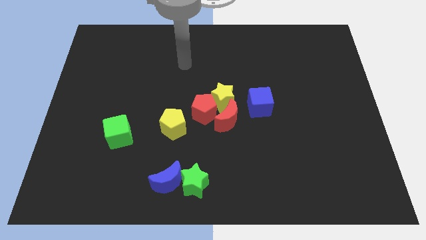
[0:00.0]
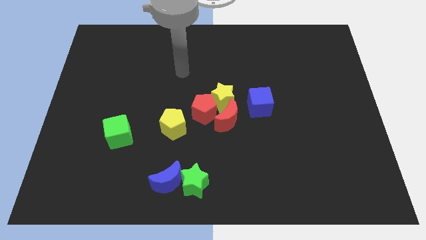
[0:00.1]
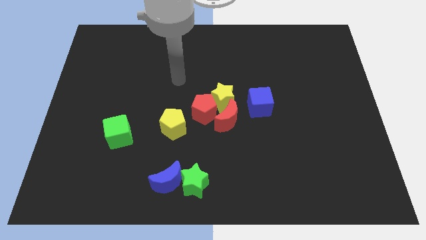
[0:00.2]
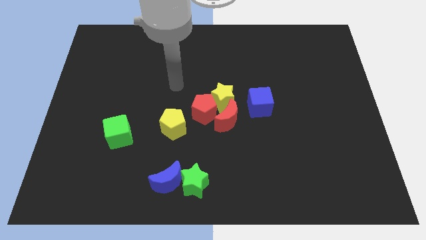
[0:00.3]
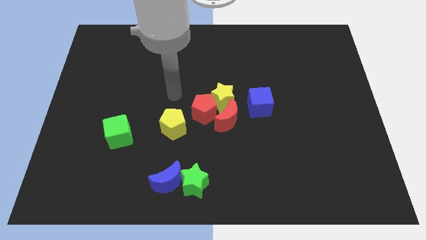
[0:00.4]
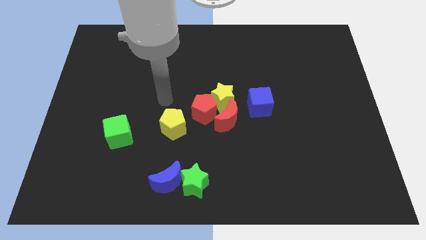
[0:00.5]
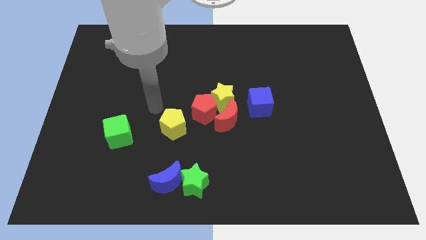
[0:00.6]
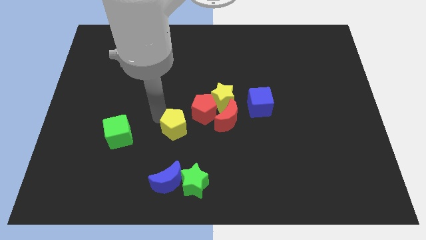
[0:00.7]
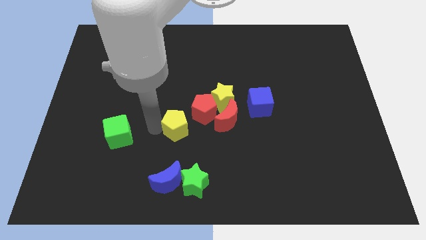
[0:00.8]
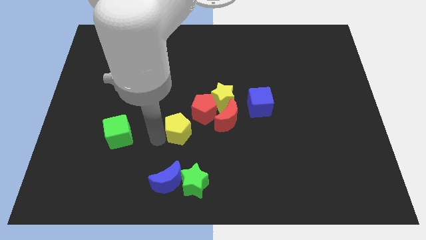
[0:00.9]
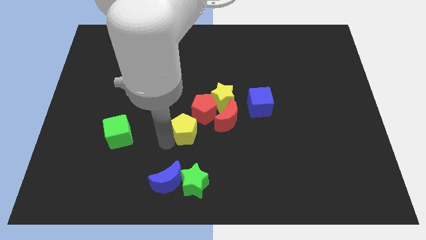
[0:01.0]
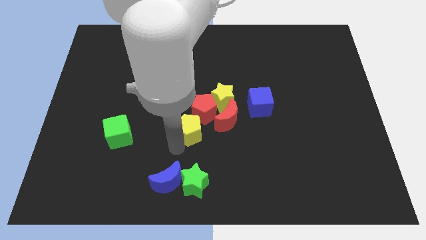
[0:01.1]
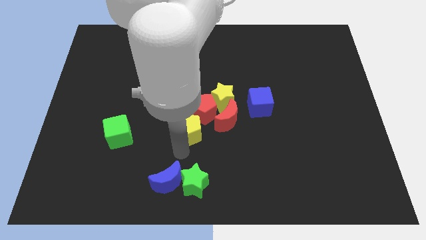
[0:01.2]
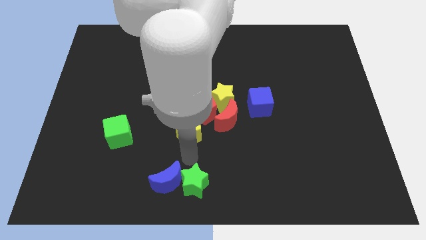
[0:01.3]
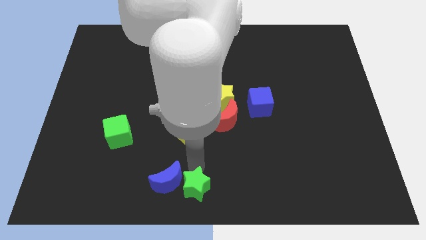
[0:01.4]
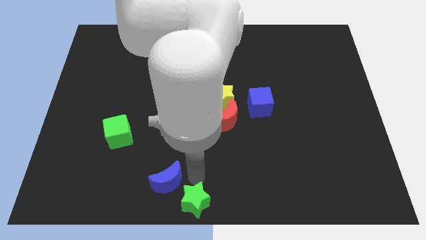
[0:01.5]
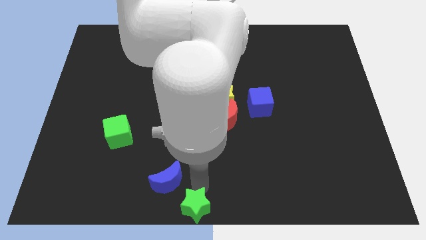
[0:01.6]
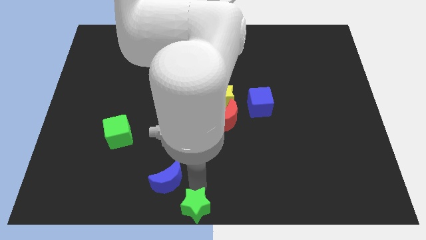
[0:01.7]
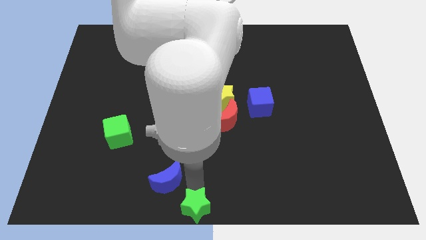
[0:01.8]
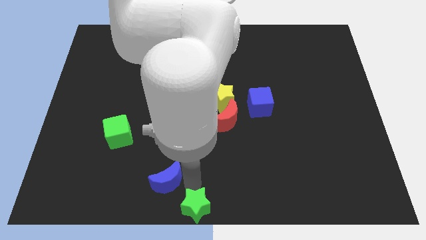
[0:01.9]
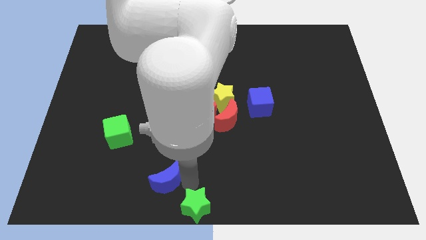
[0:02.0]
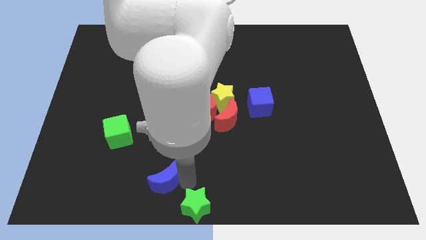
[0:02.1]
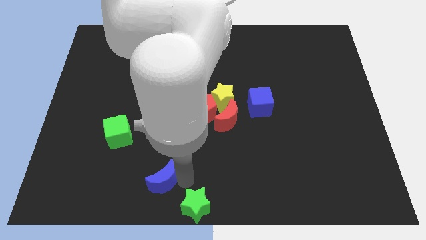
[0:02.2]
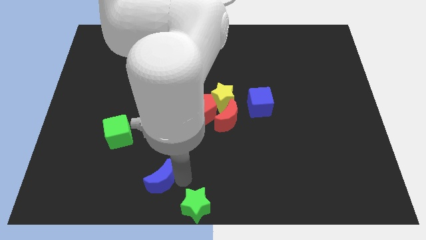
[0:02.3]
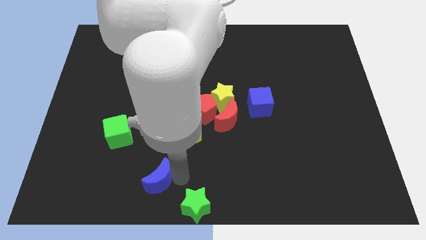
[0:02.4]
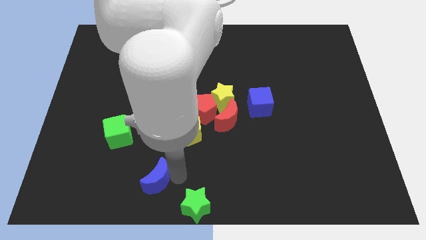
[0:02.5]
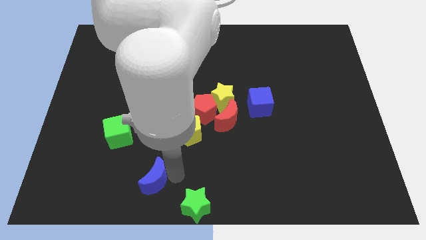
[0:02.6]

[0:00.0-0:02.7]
separate the blue moon from the green star

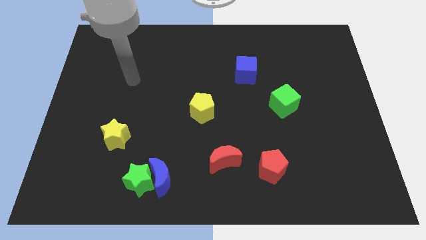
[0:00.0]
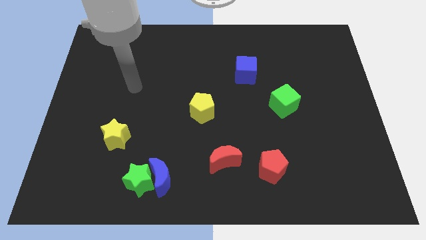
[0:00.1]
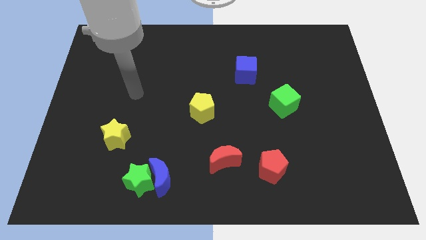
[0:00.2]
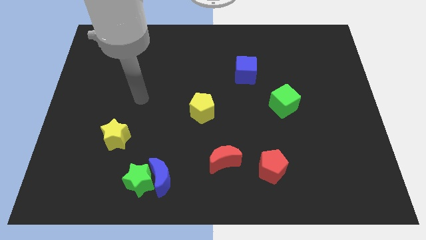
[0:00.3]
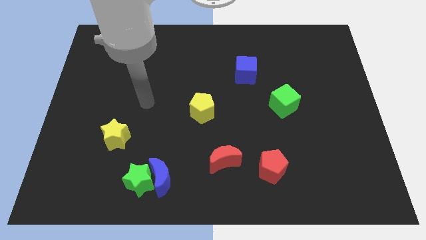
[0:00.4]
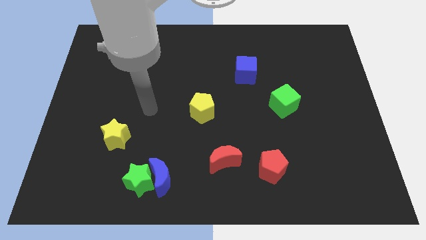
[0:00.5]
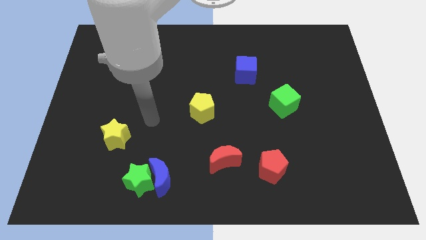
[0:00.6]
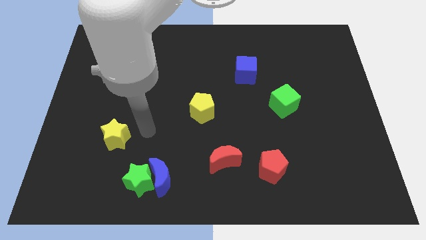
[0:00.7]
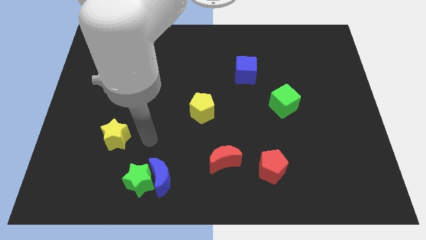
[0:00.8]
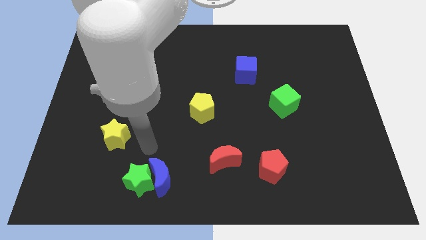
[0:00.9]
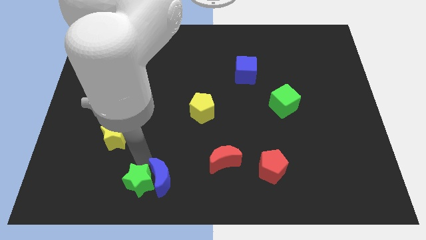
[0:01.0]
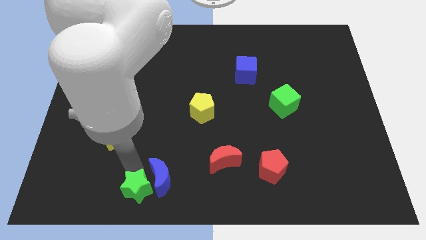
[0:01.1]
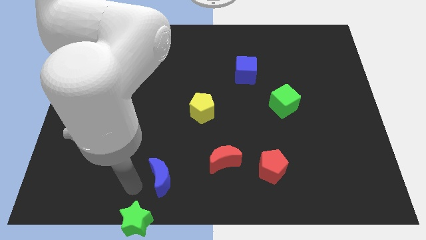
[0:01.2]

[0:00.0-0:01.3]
move the blue moon away from the green star

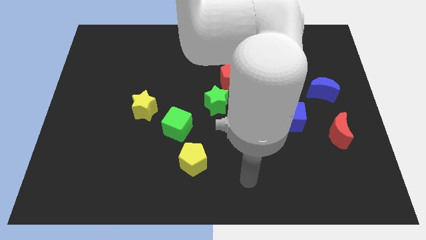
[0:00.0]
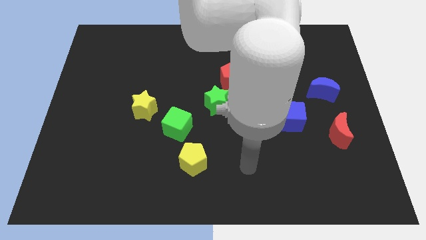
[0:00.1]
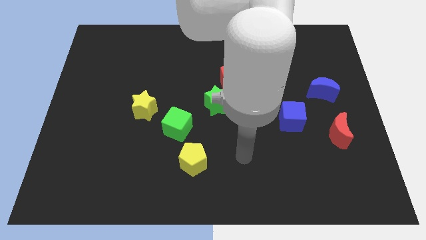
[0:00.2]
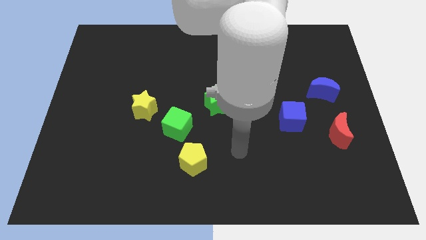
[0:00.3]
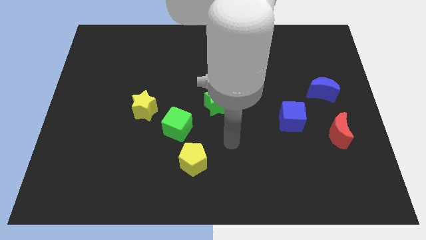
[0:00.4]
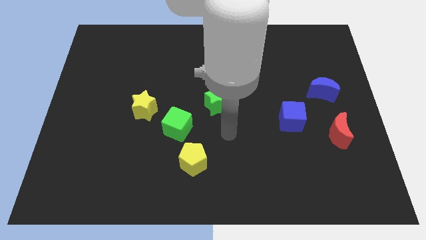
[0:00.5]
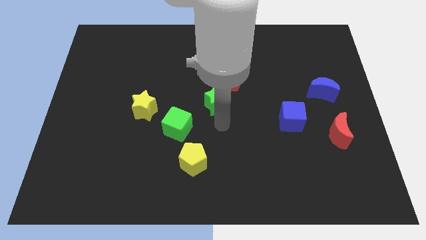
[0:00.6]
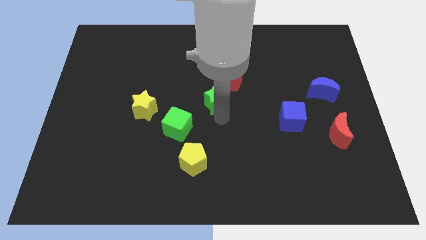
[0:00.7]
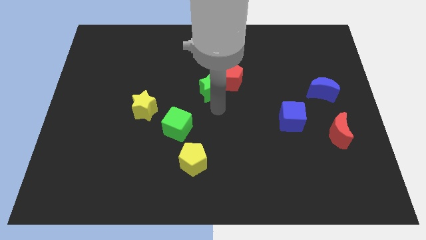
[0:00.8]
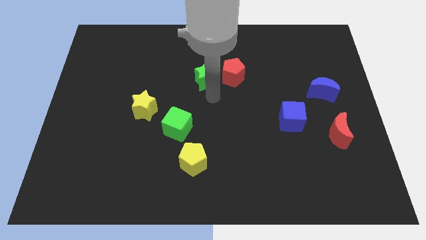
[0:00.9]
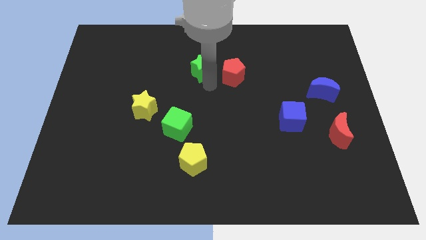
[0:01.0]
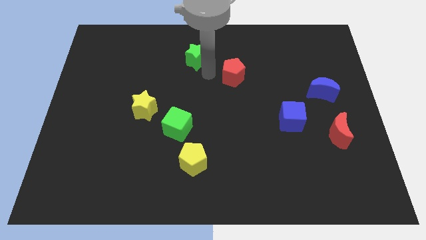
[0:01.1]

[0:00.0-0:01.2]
separate the red pentagon from the green star

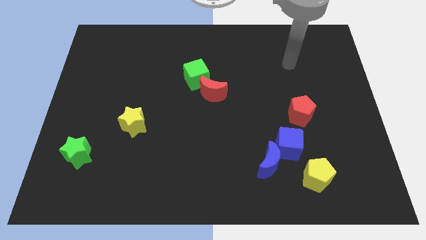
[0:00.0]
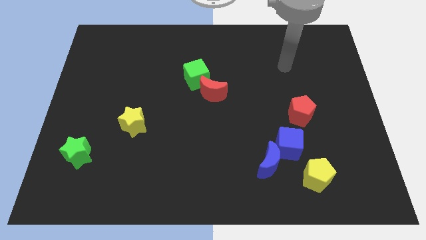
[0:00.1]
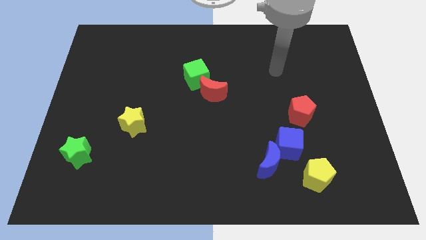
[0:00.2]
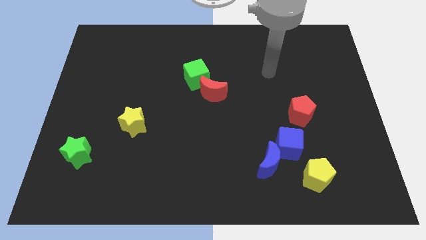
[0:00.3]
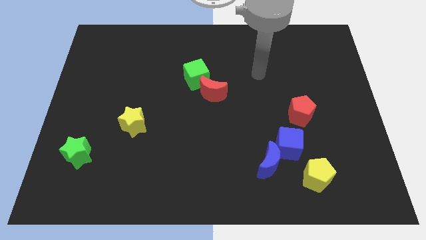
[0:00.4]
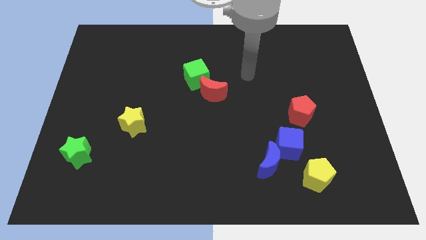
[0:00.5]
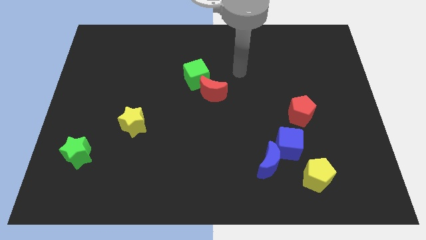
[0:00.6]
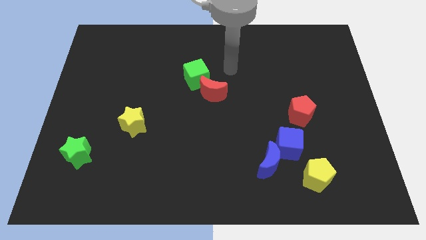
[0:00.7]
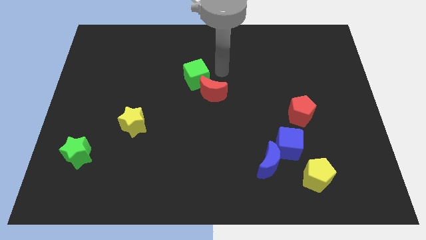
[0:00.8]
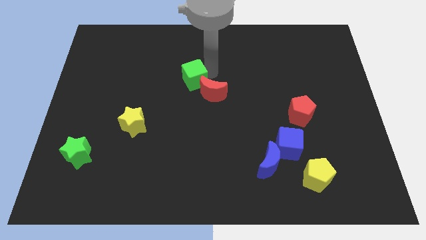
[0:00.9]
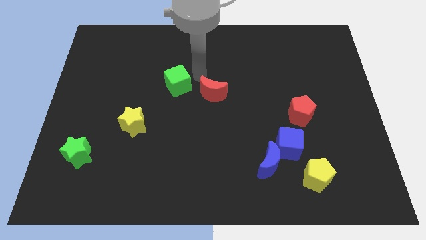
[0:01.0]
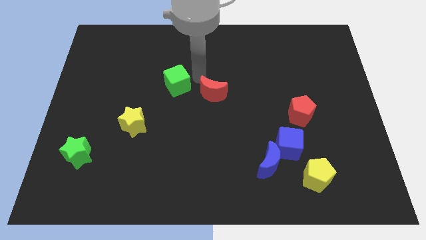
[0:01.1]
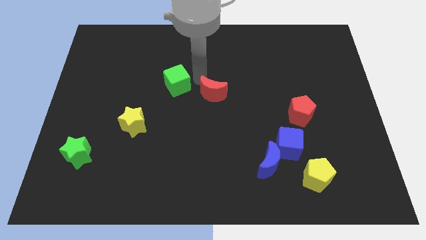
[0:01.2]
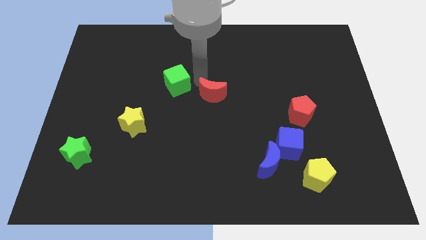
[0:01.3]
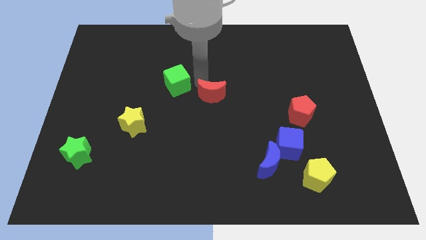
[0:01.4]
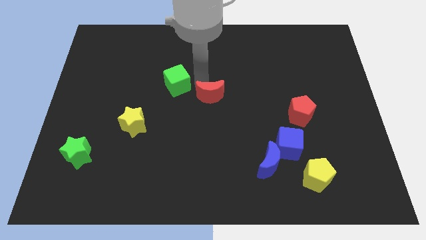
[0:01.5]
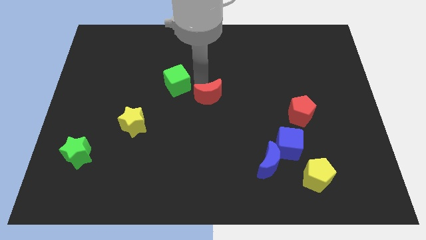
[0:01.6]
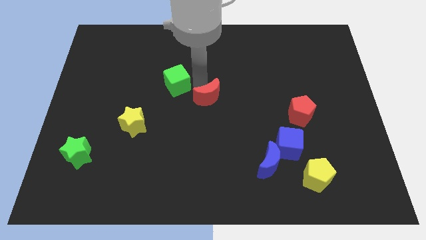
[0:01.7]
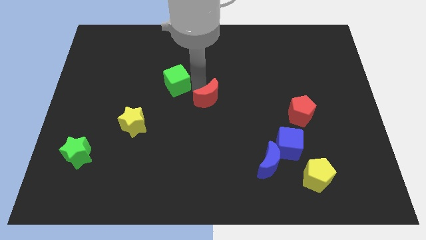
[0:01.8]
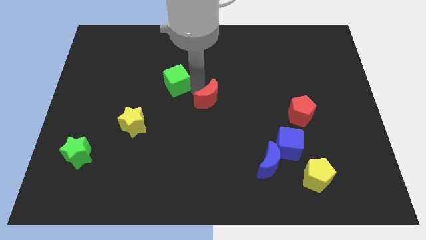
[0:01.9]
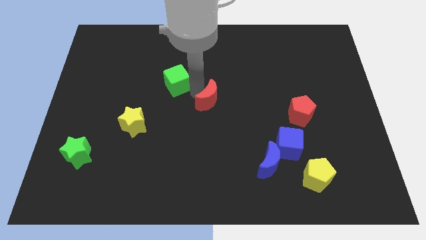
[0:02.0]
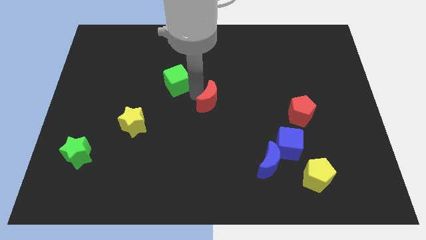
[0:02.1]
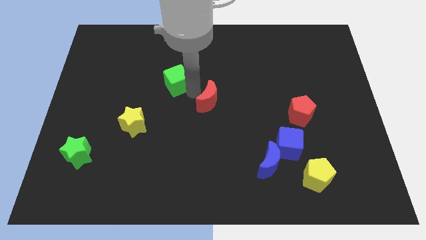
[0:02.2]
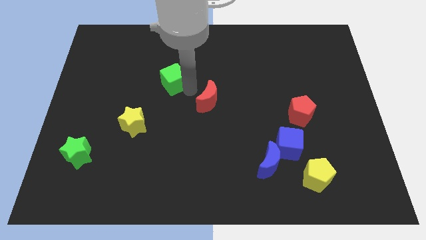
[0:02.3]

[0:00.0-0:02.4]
pull the red moon apart from the green cube

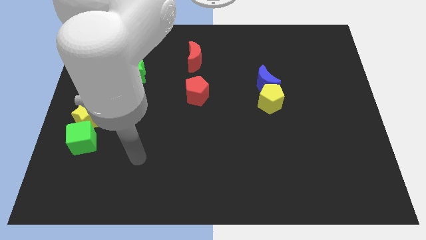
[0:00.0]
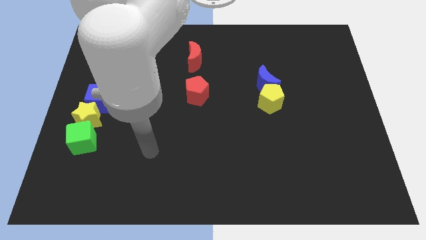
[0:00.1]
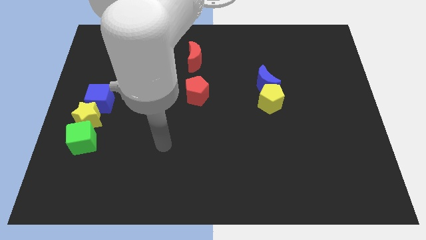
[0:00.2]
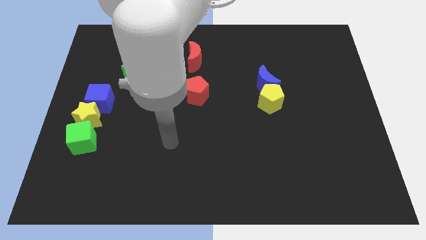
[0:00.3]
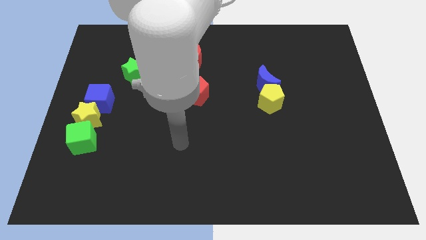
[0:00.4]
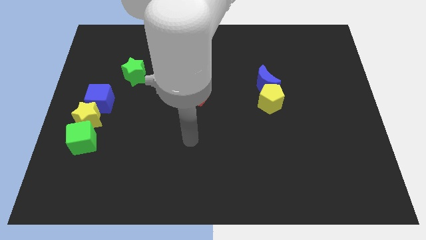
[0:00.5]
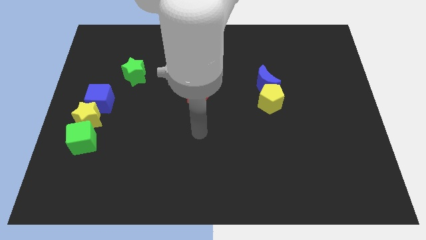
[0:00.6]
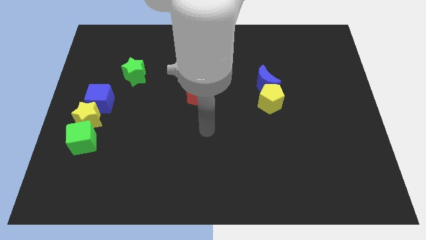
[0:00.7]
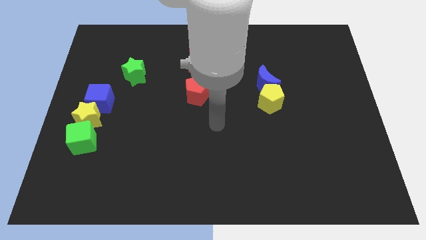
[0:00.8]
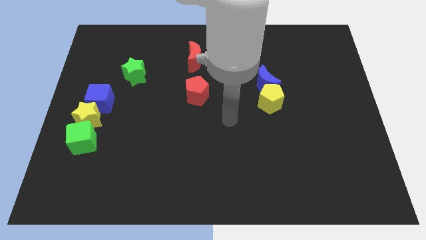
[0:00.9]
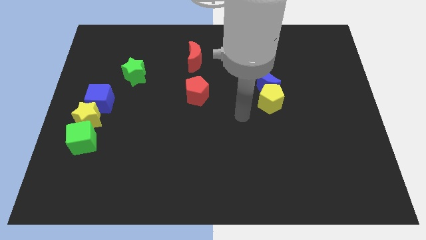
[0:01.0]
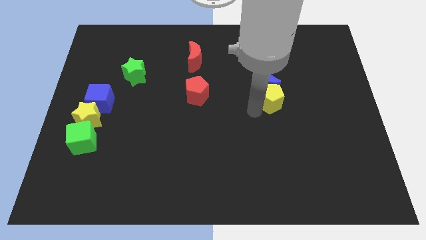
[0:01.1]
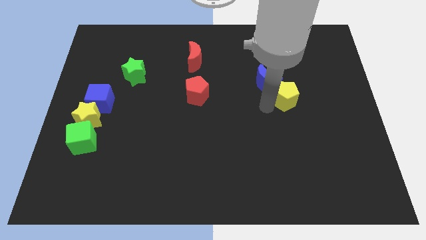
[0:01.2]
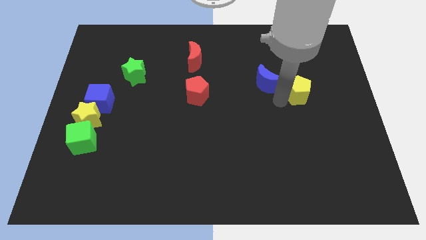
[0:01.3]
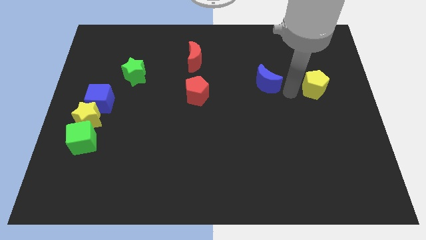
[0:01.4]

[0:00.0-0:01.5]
pull the blue moon apart from the yellow pentagon

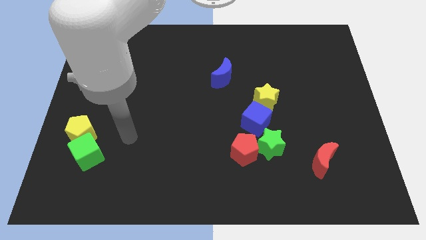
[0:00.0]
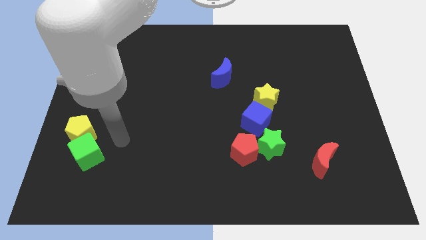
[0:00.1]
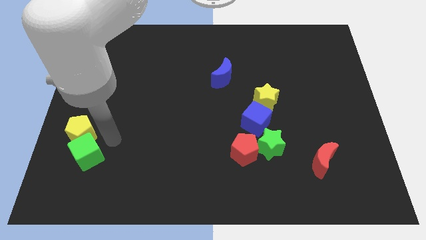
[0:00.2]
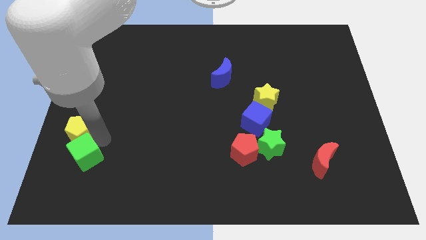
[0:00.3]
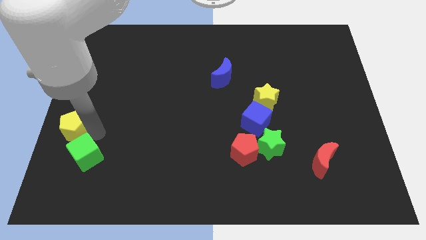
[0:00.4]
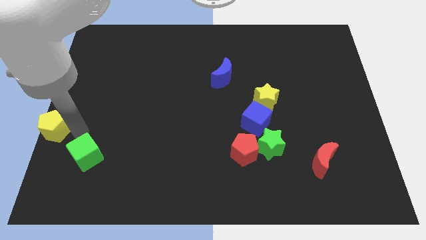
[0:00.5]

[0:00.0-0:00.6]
pull the green cube apart from the yellow pentagon
